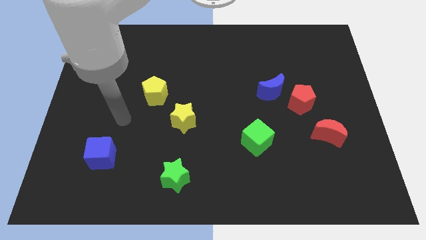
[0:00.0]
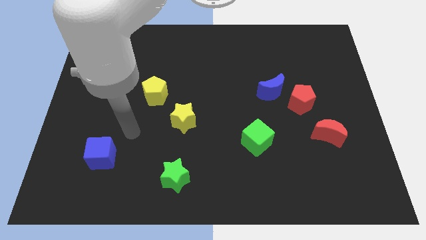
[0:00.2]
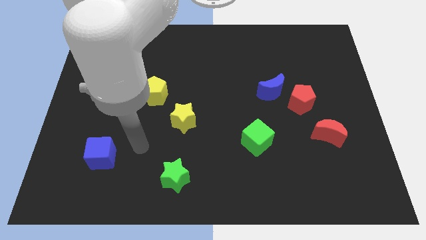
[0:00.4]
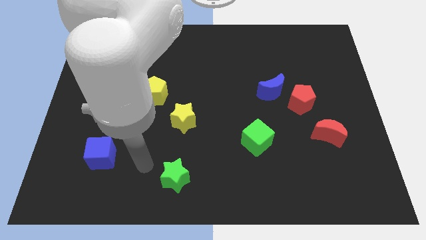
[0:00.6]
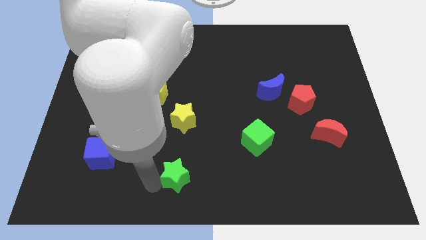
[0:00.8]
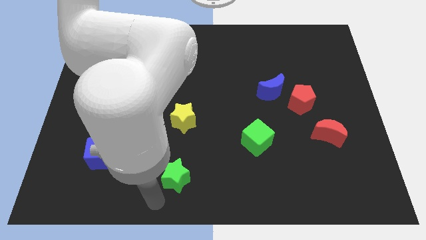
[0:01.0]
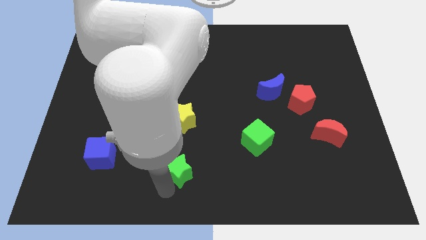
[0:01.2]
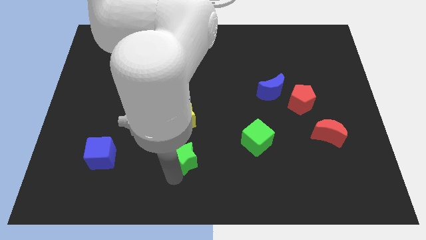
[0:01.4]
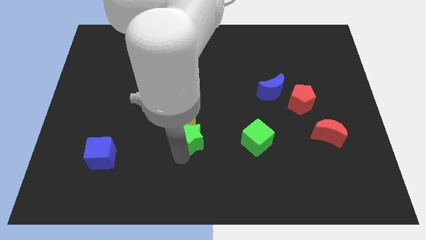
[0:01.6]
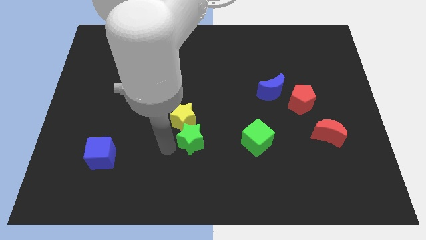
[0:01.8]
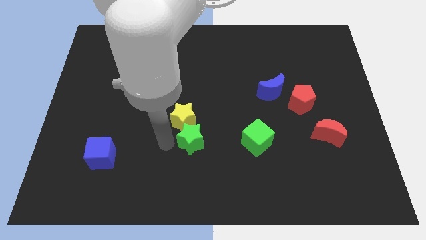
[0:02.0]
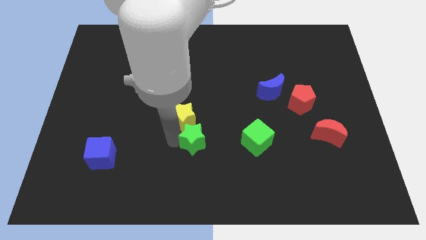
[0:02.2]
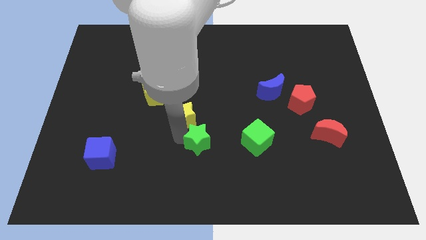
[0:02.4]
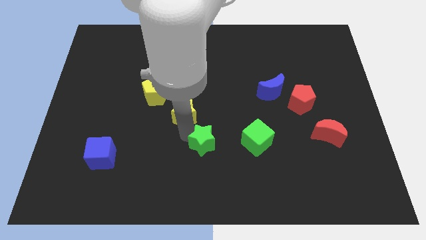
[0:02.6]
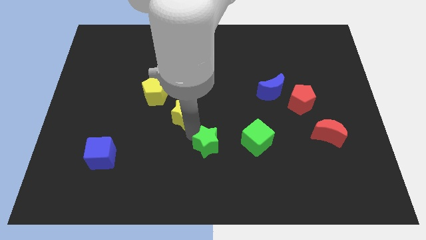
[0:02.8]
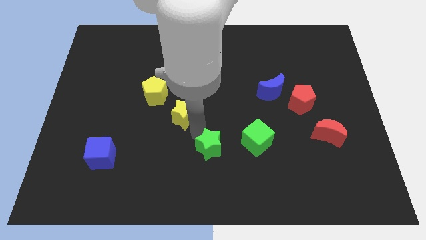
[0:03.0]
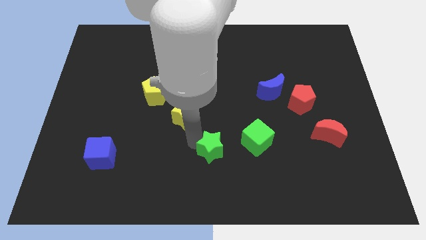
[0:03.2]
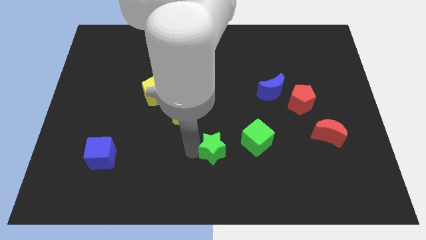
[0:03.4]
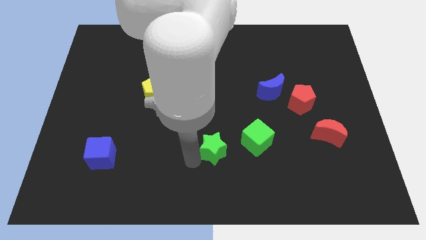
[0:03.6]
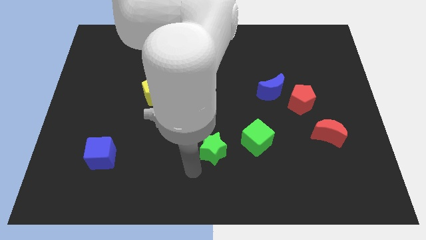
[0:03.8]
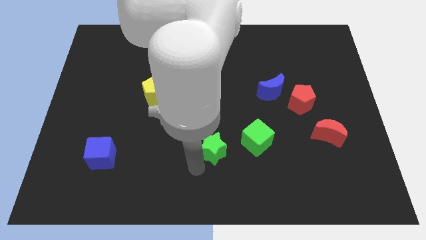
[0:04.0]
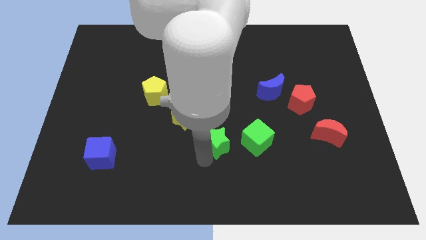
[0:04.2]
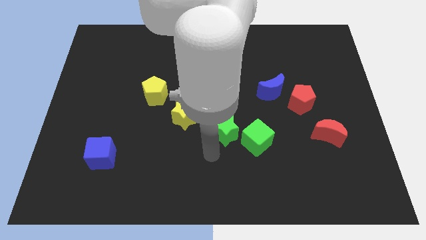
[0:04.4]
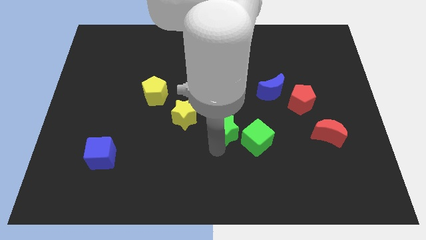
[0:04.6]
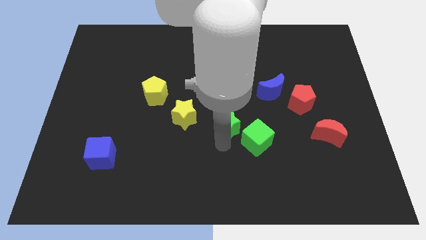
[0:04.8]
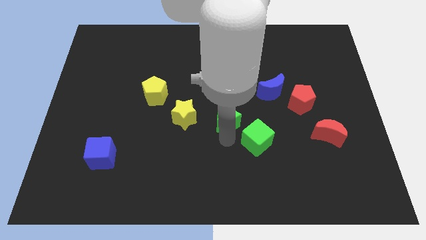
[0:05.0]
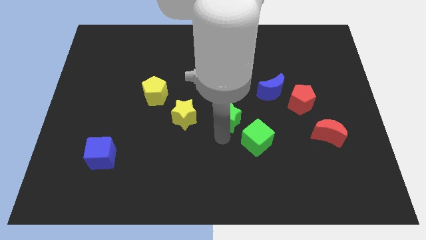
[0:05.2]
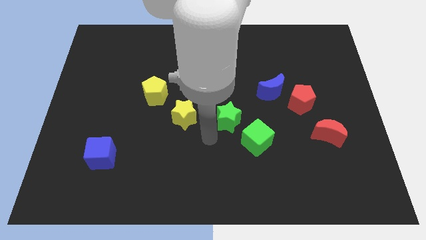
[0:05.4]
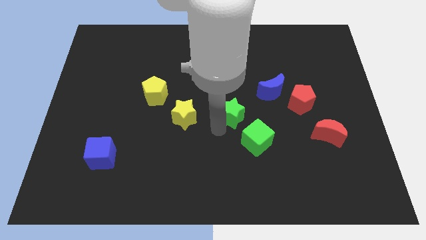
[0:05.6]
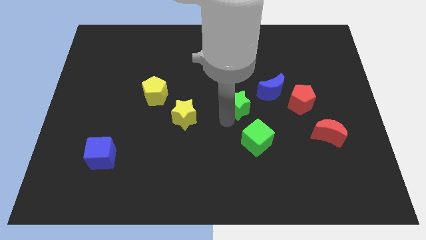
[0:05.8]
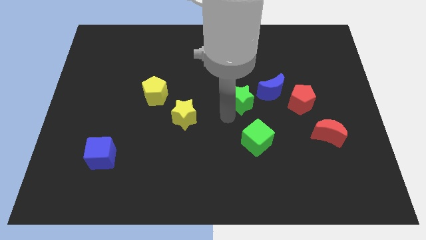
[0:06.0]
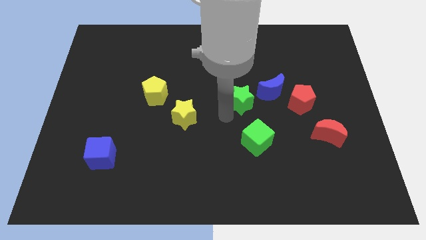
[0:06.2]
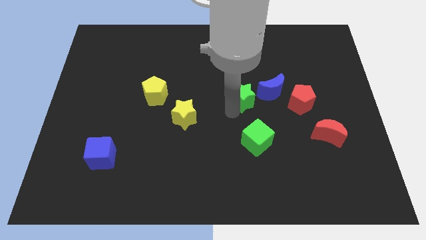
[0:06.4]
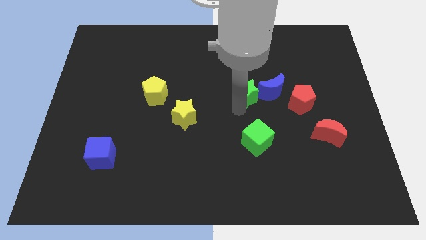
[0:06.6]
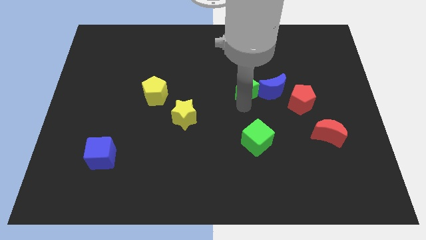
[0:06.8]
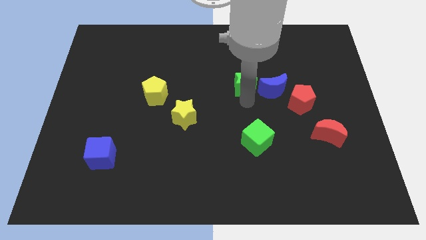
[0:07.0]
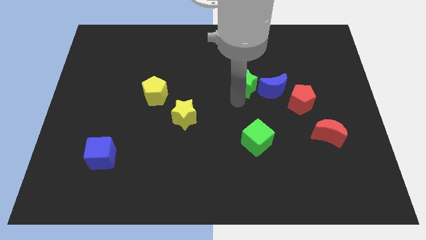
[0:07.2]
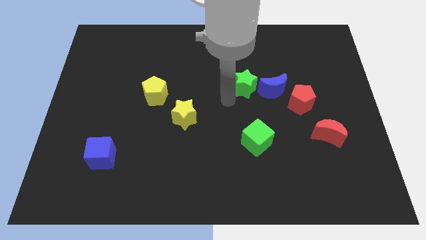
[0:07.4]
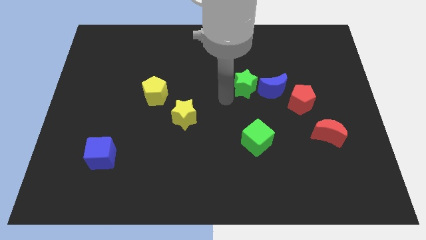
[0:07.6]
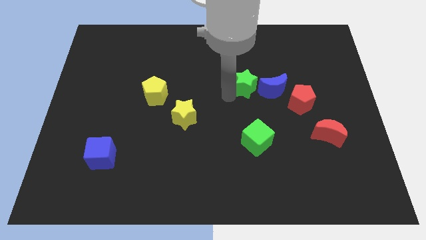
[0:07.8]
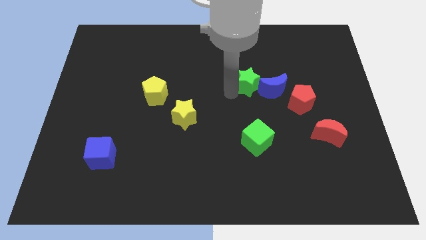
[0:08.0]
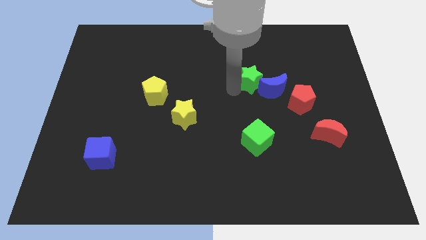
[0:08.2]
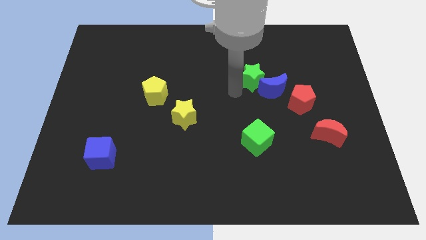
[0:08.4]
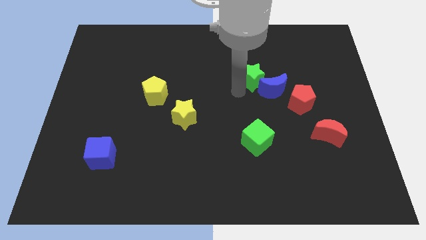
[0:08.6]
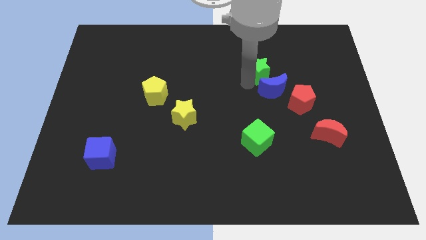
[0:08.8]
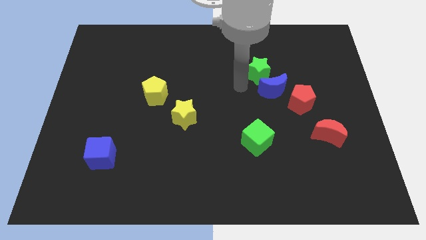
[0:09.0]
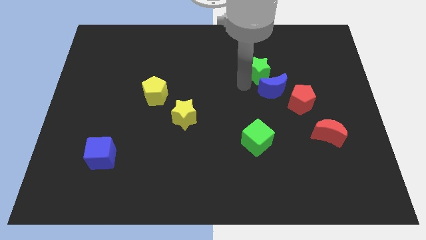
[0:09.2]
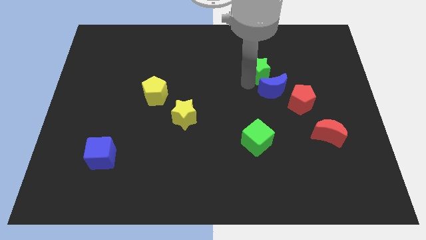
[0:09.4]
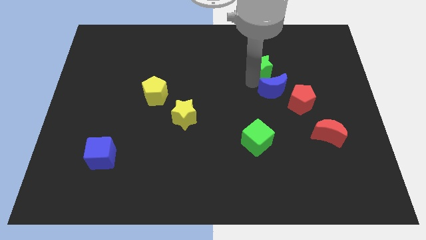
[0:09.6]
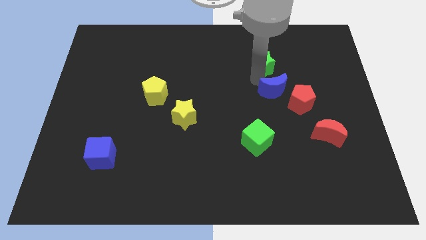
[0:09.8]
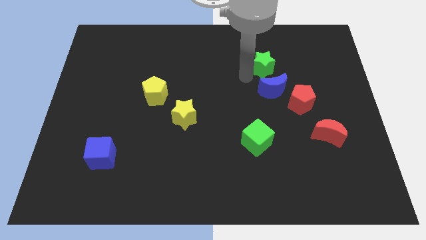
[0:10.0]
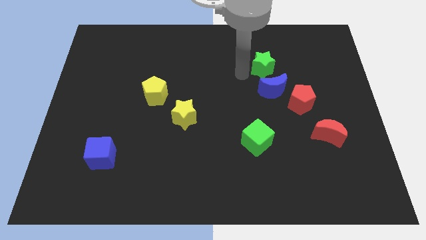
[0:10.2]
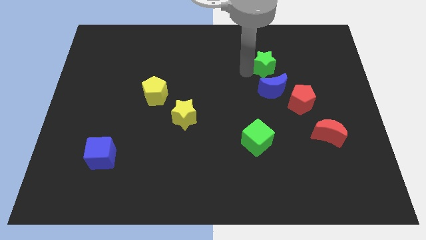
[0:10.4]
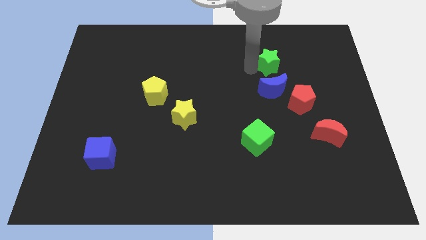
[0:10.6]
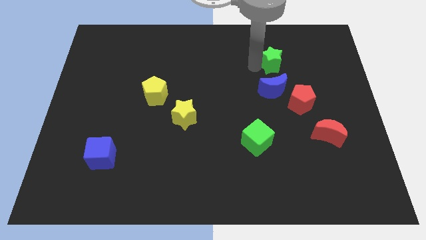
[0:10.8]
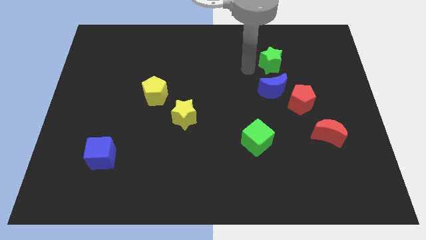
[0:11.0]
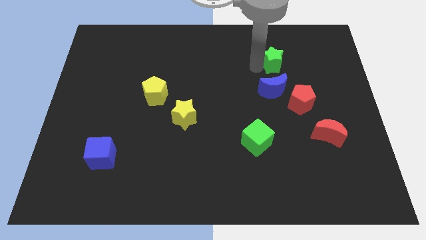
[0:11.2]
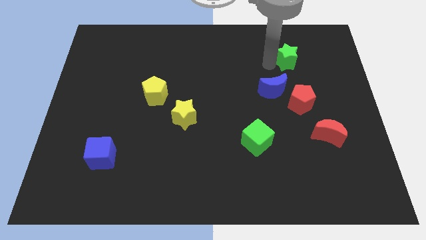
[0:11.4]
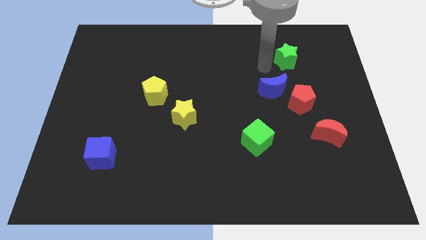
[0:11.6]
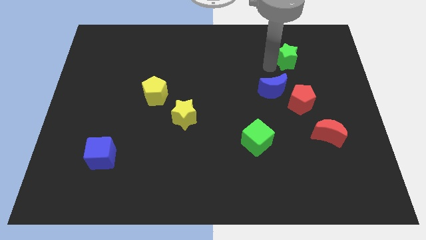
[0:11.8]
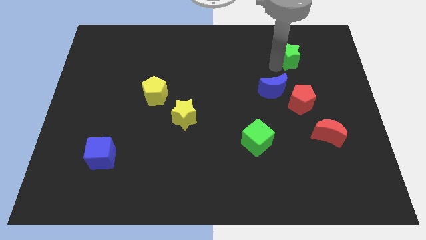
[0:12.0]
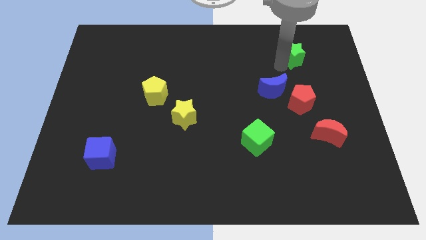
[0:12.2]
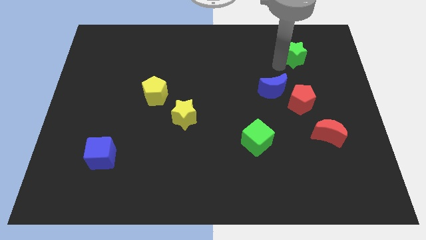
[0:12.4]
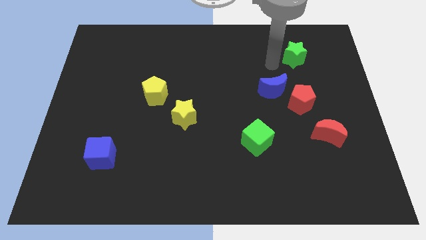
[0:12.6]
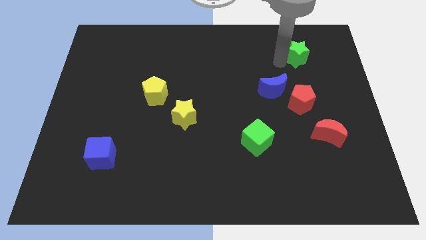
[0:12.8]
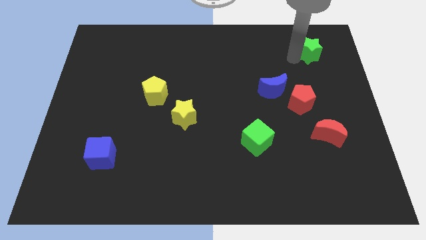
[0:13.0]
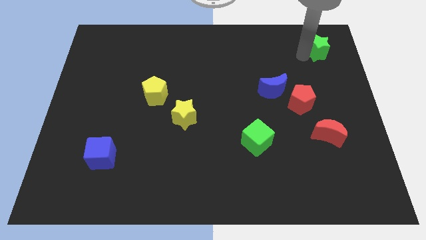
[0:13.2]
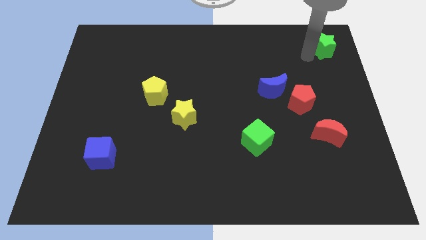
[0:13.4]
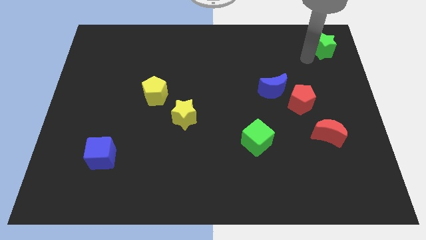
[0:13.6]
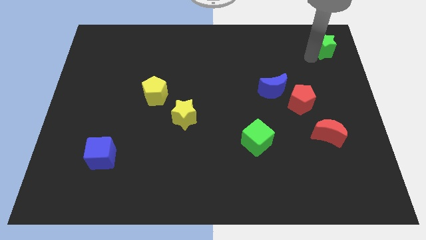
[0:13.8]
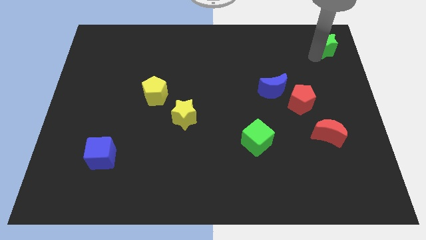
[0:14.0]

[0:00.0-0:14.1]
move the green star to the top right of the board
